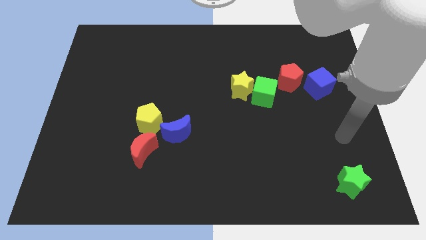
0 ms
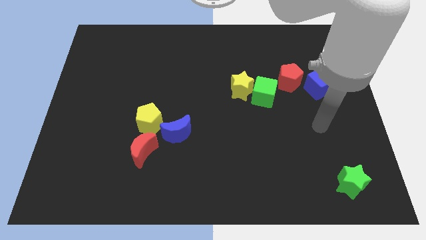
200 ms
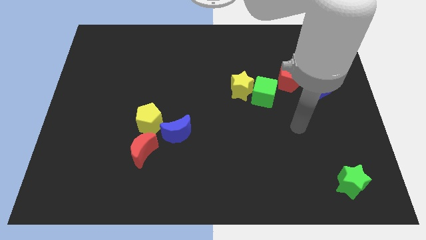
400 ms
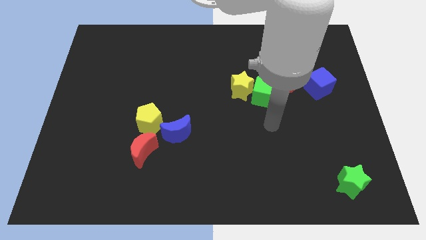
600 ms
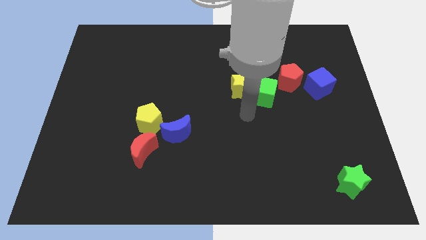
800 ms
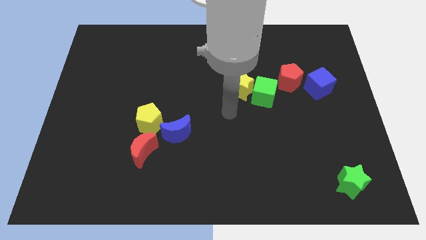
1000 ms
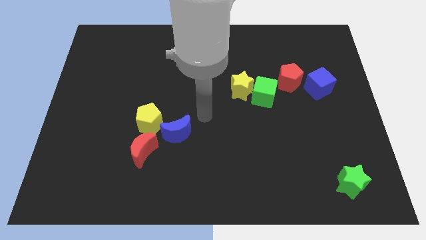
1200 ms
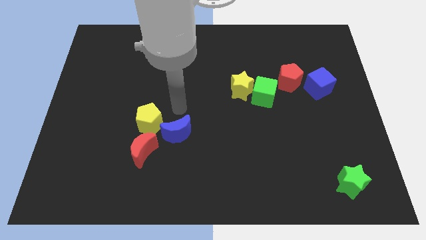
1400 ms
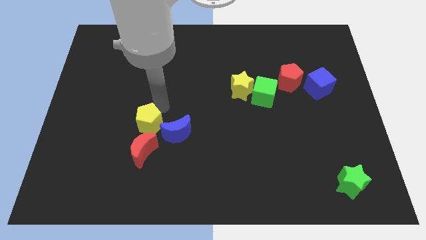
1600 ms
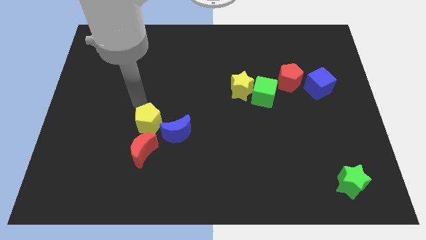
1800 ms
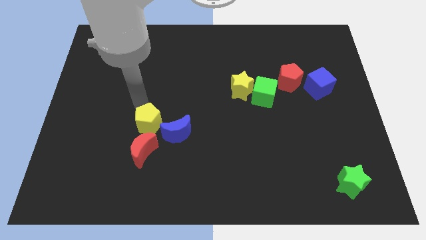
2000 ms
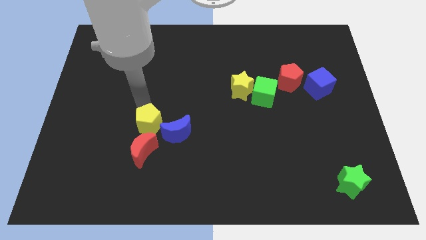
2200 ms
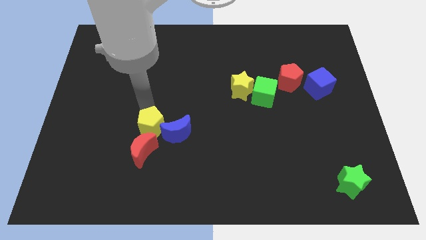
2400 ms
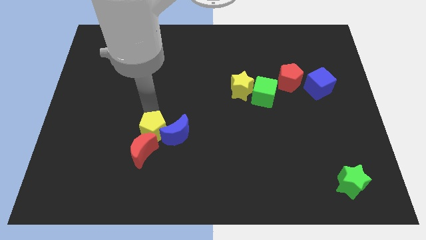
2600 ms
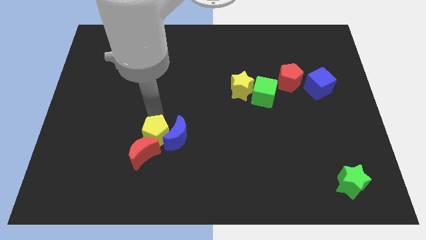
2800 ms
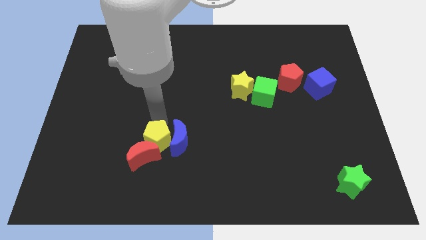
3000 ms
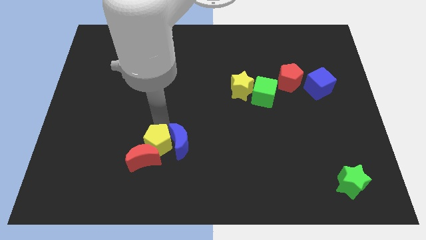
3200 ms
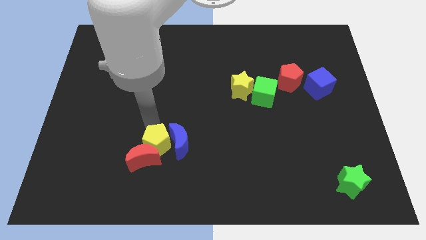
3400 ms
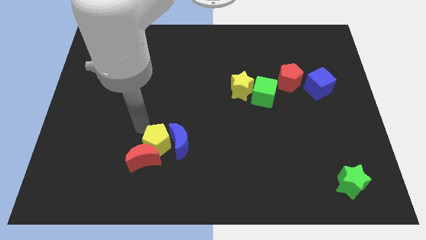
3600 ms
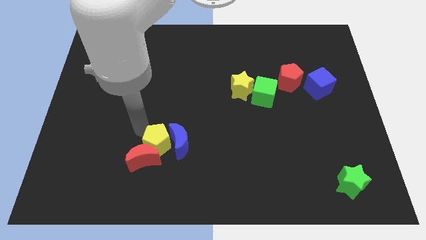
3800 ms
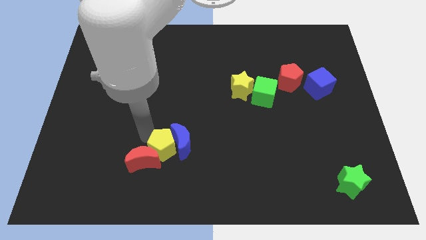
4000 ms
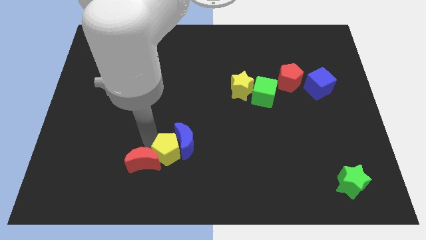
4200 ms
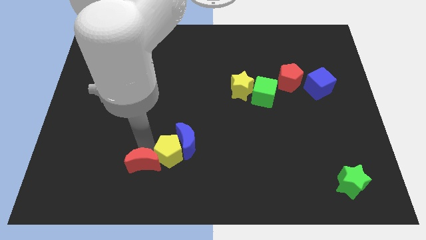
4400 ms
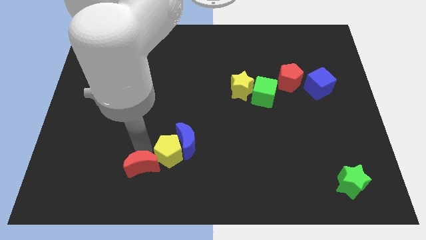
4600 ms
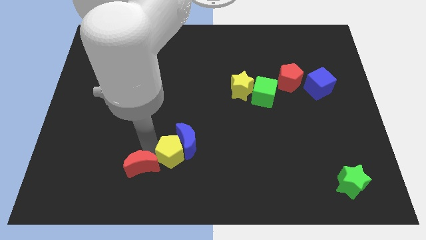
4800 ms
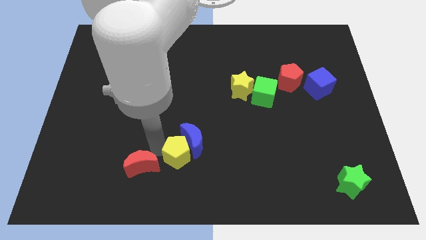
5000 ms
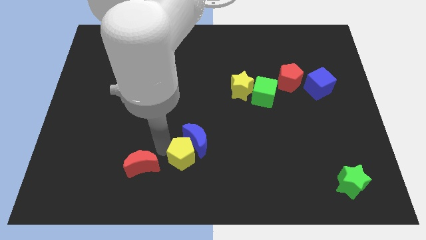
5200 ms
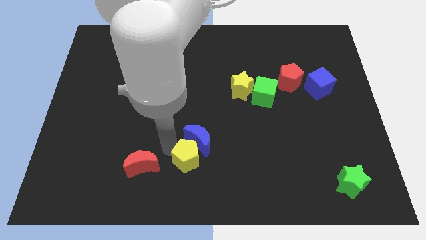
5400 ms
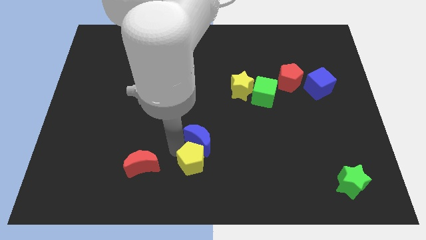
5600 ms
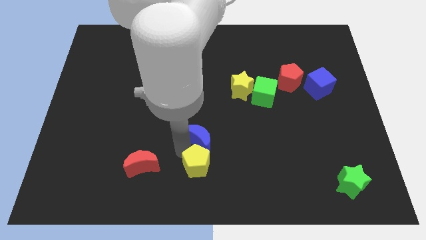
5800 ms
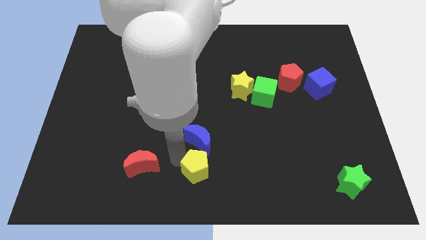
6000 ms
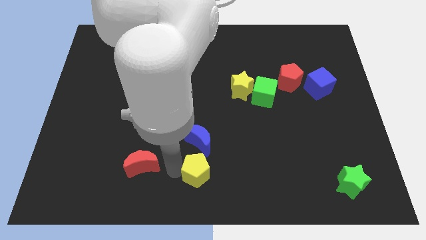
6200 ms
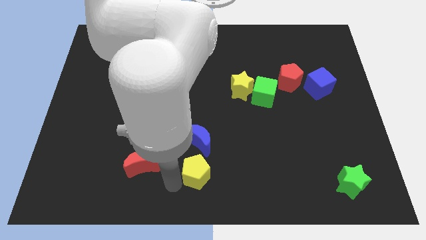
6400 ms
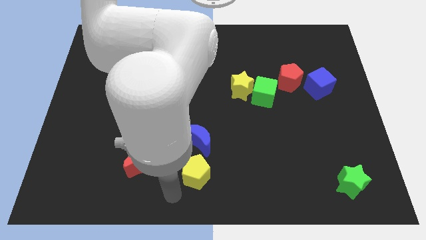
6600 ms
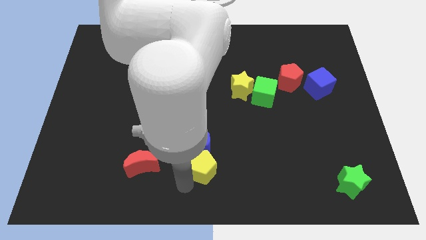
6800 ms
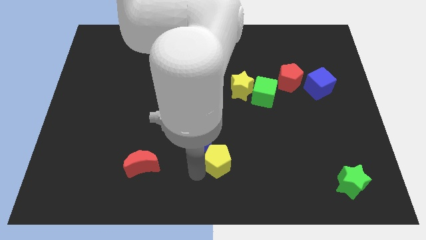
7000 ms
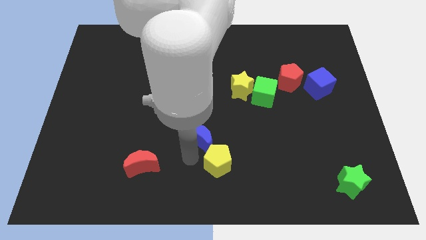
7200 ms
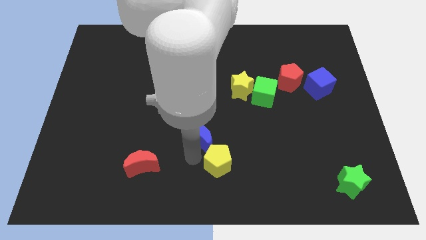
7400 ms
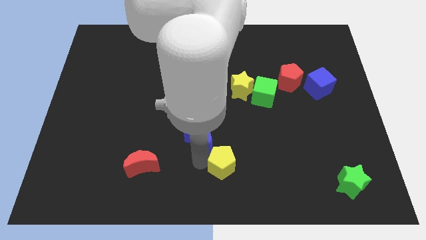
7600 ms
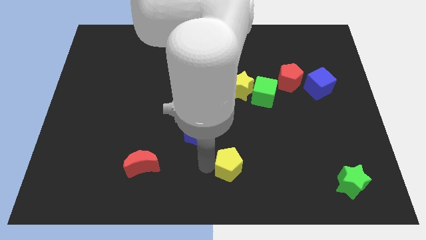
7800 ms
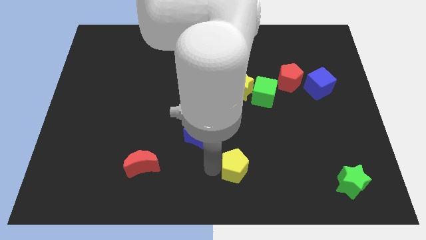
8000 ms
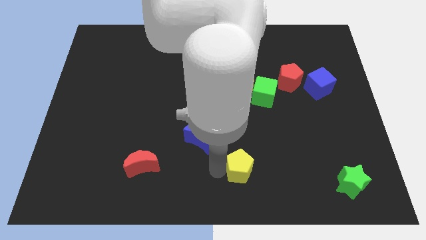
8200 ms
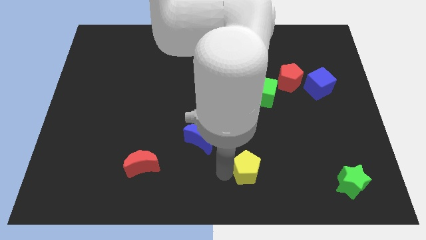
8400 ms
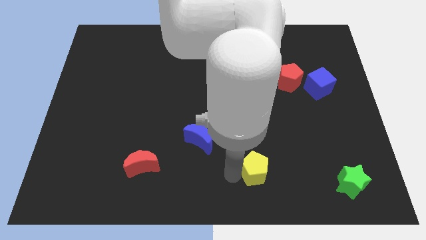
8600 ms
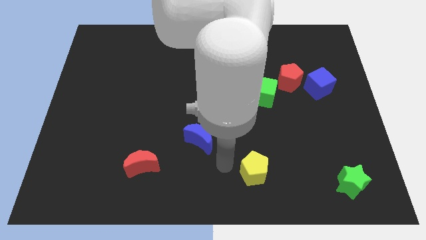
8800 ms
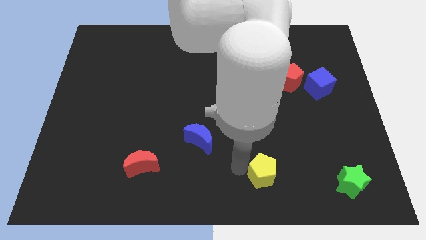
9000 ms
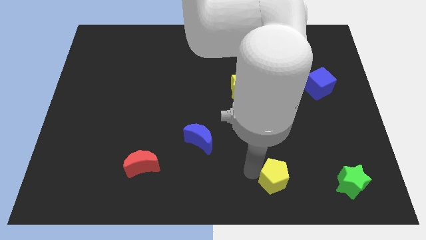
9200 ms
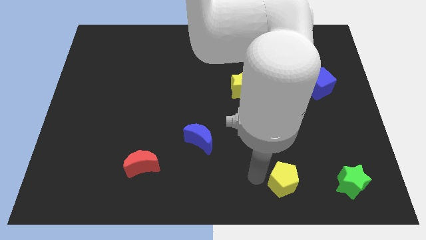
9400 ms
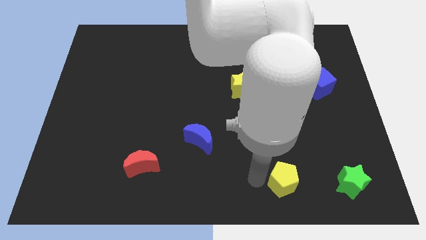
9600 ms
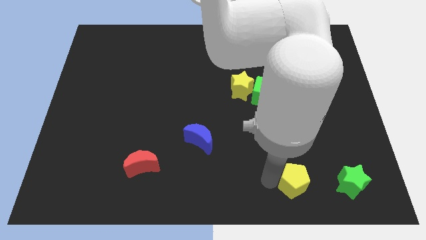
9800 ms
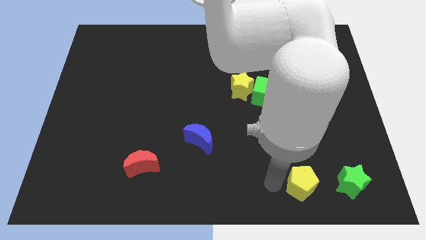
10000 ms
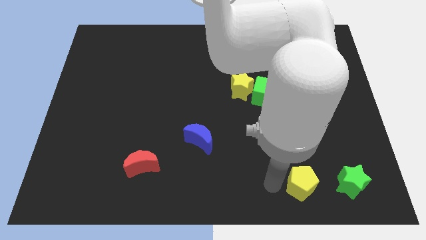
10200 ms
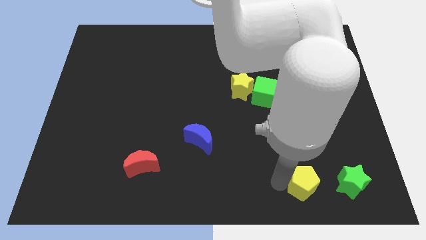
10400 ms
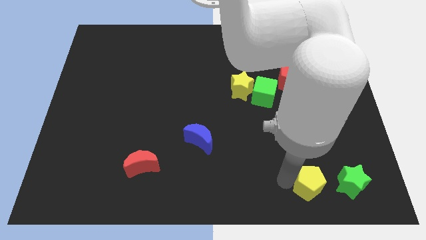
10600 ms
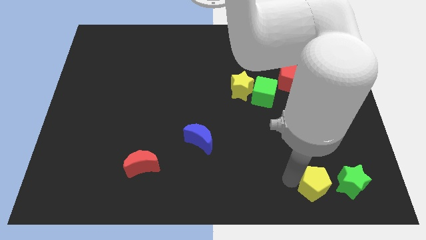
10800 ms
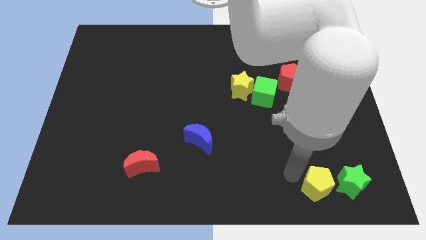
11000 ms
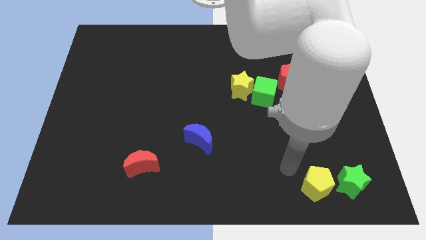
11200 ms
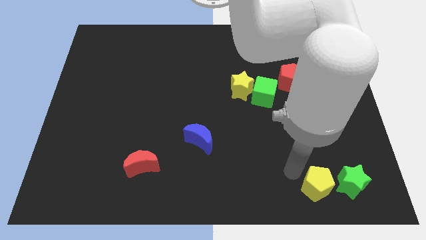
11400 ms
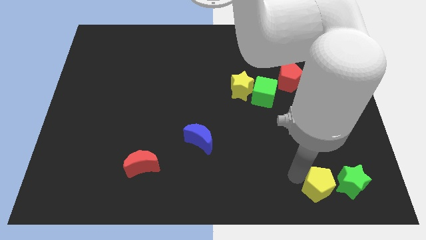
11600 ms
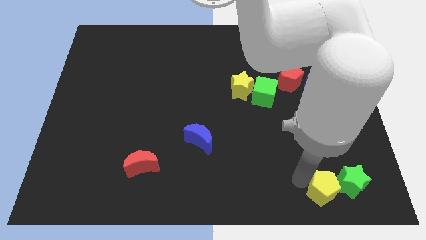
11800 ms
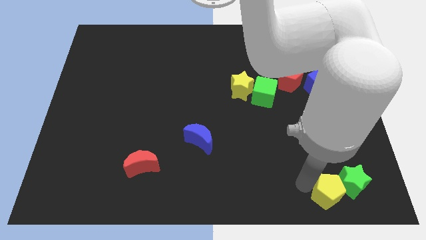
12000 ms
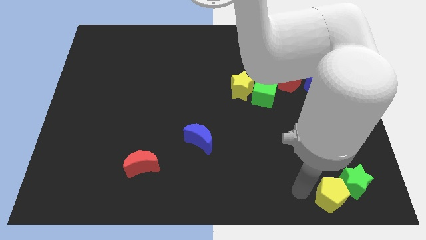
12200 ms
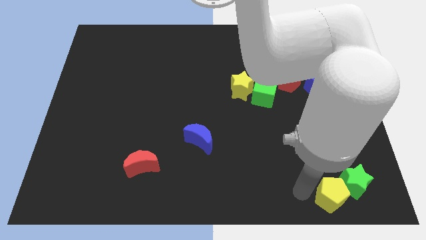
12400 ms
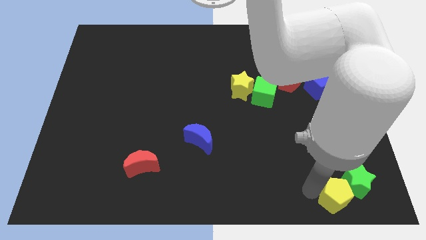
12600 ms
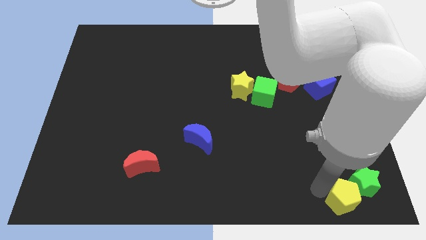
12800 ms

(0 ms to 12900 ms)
push the yellow pentagon to the lower right corner

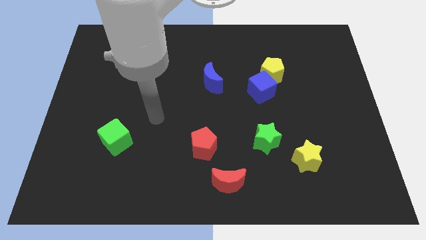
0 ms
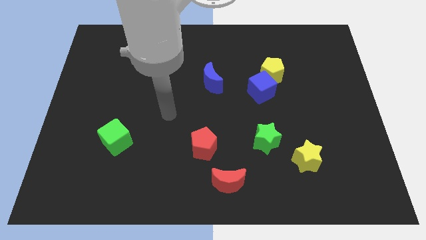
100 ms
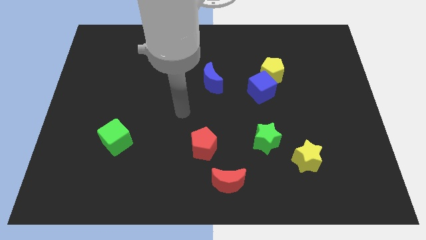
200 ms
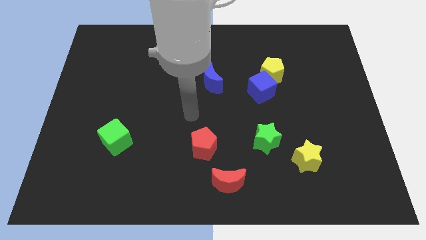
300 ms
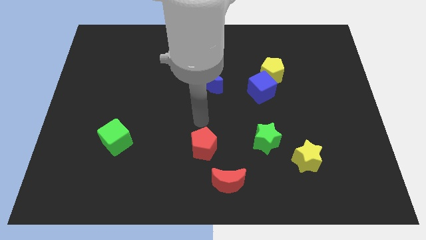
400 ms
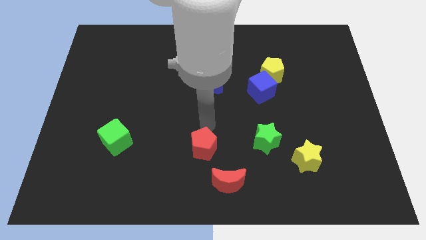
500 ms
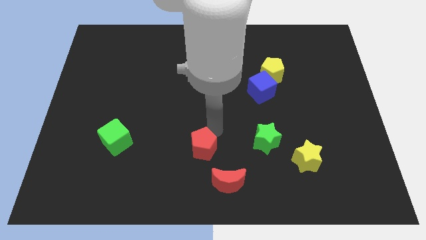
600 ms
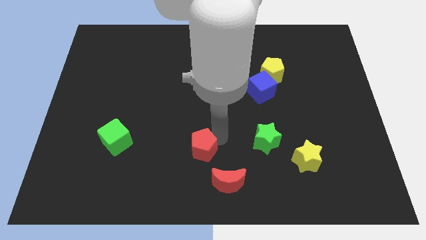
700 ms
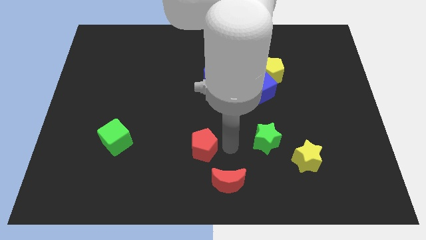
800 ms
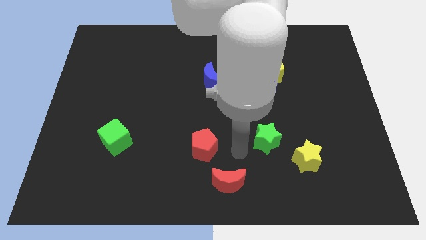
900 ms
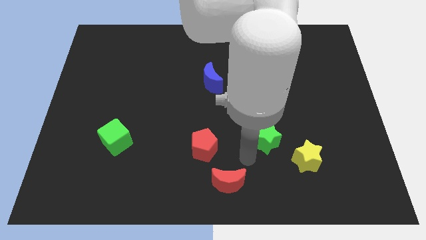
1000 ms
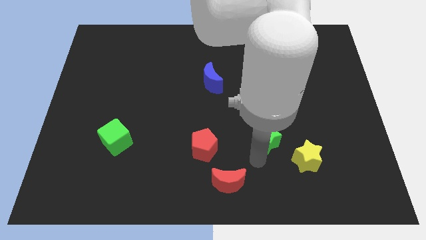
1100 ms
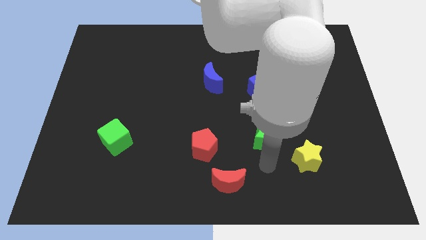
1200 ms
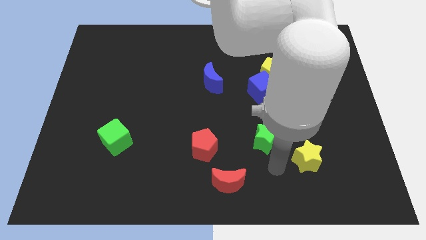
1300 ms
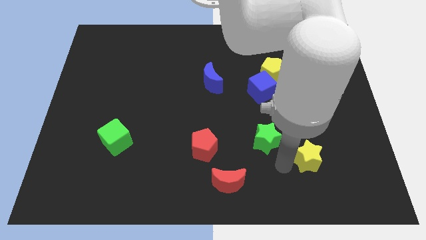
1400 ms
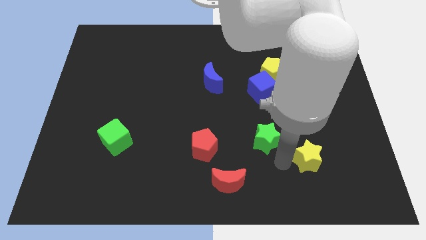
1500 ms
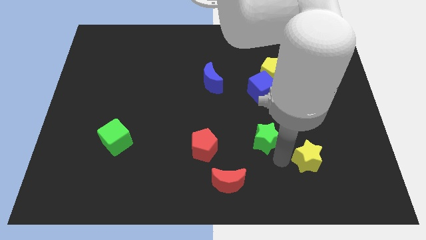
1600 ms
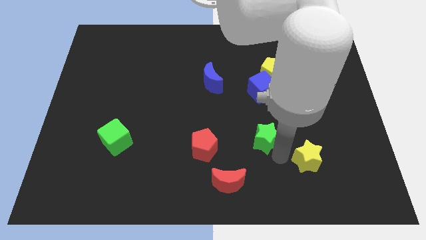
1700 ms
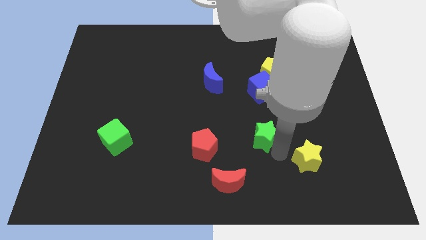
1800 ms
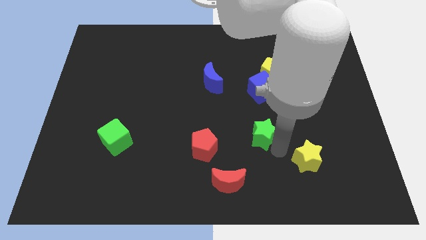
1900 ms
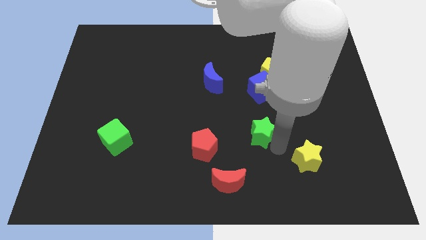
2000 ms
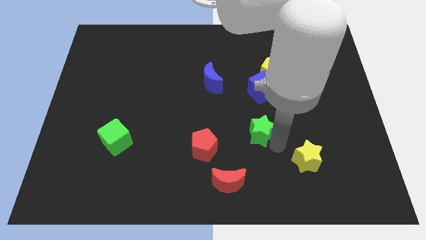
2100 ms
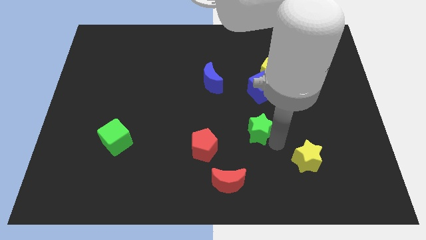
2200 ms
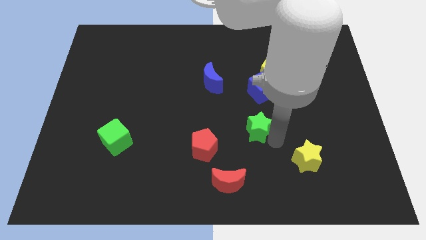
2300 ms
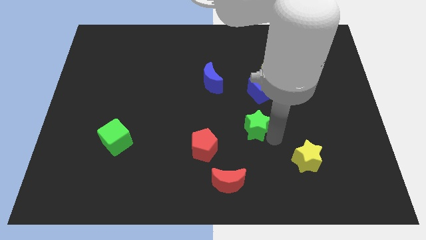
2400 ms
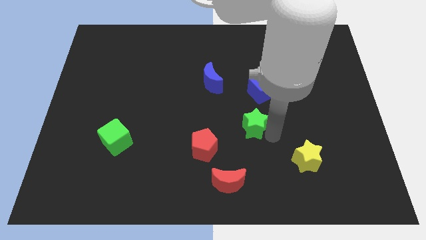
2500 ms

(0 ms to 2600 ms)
slide the green star to the middle
